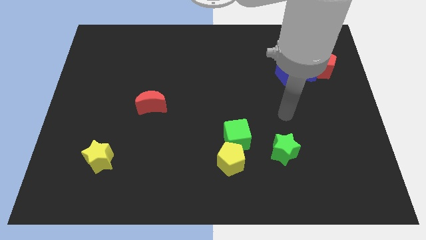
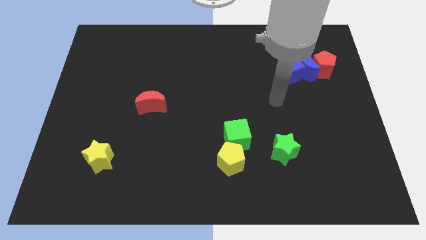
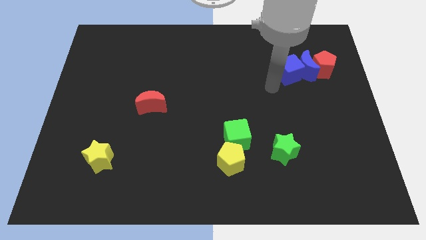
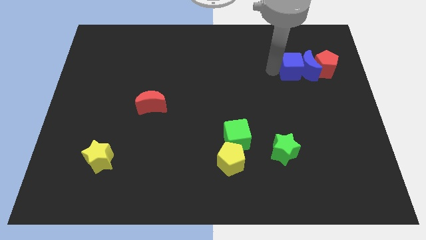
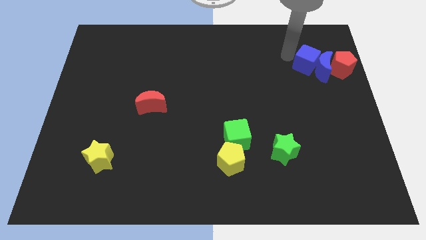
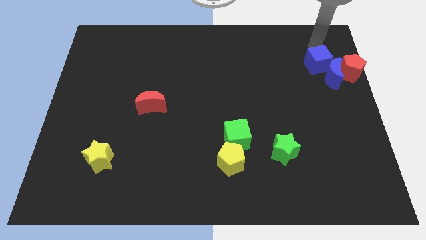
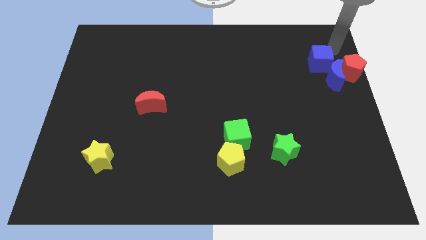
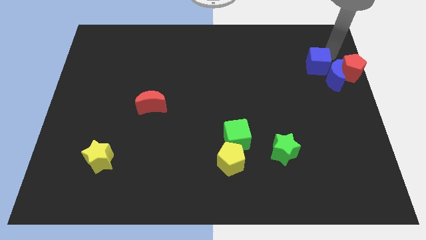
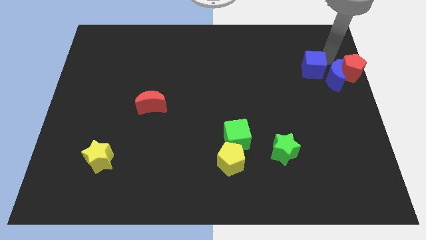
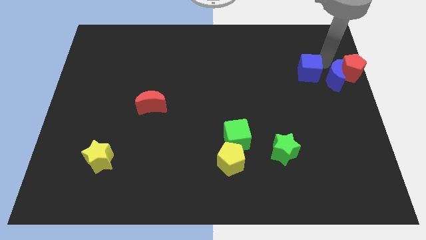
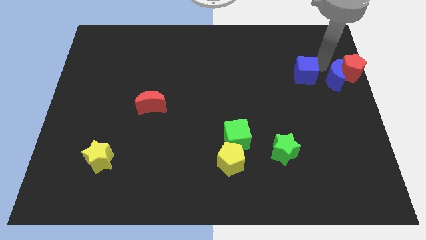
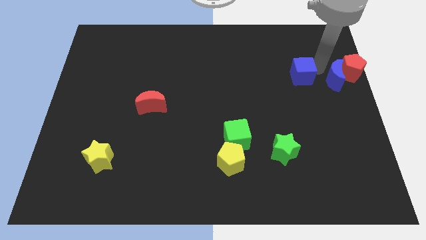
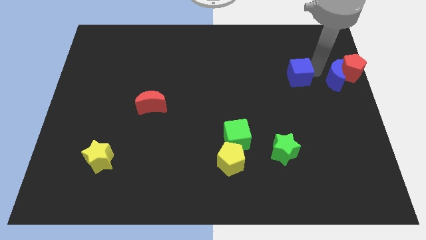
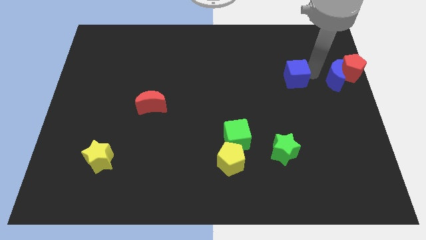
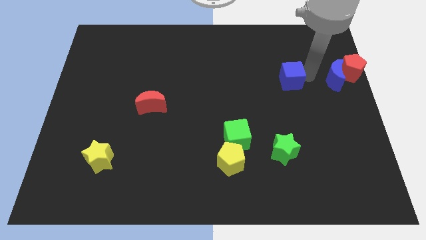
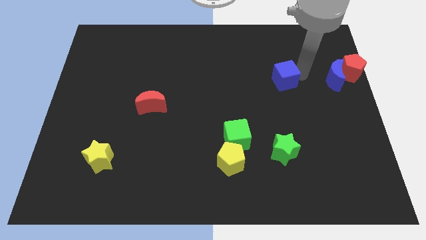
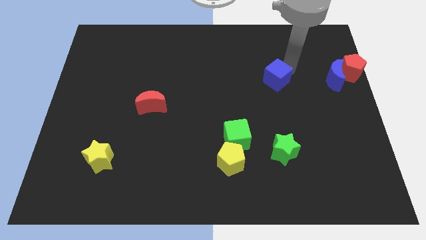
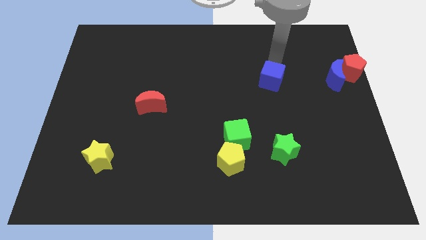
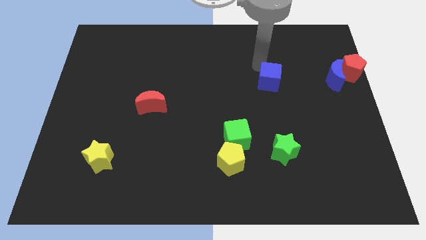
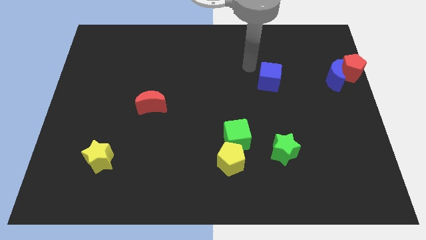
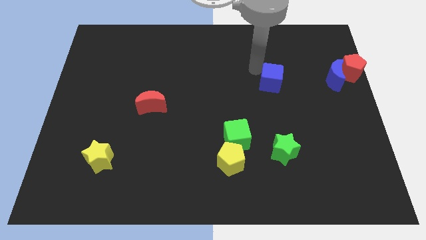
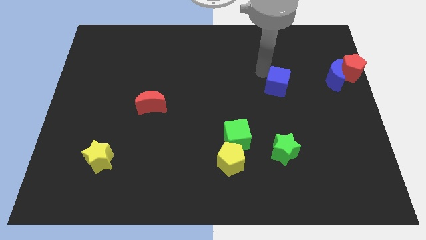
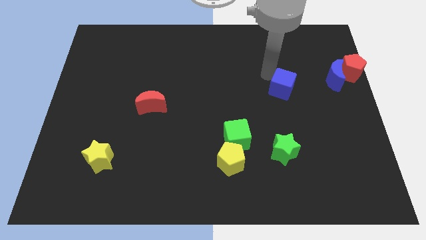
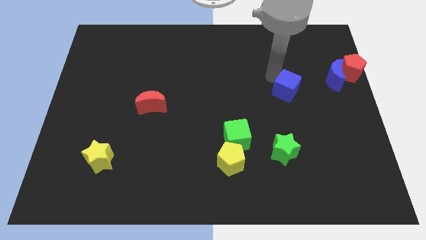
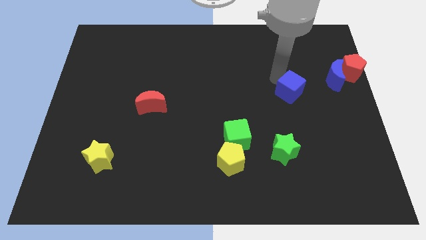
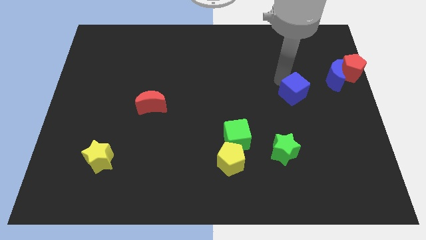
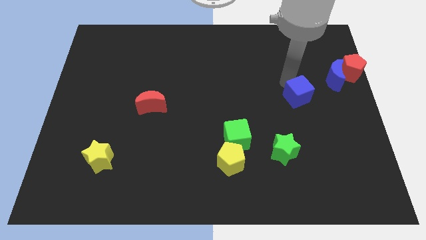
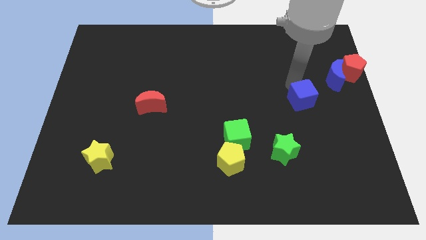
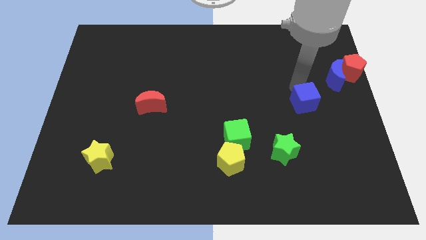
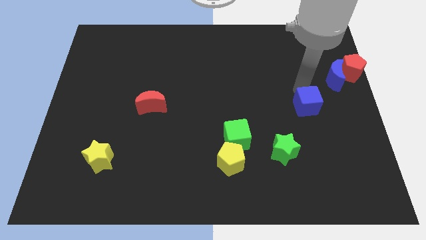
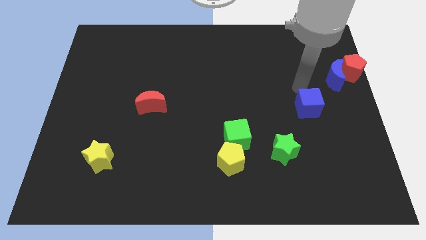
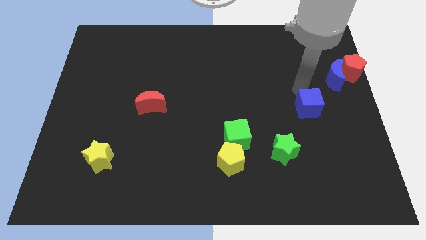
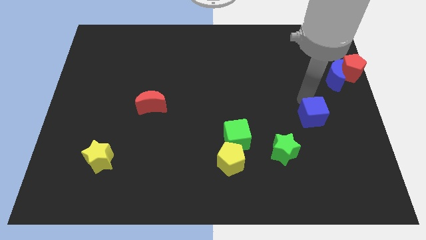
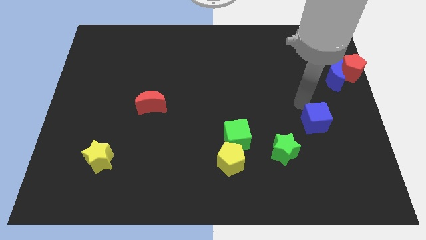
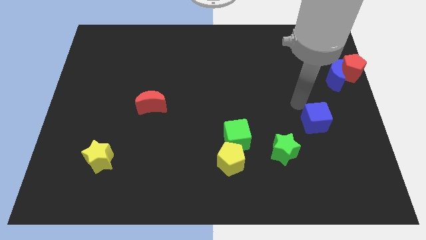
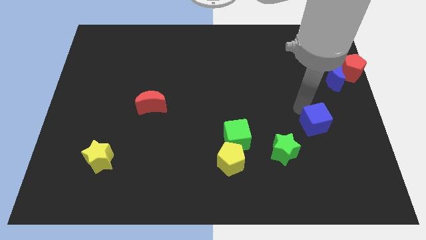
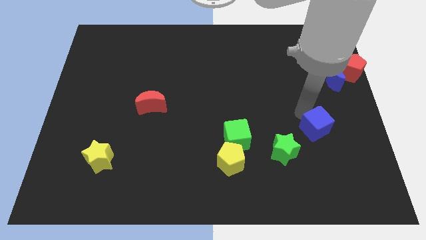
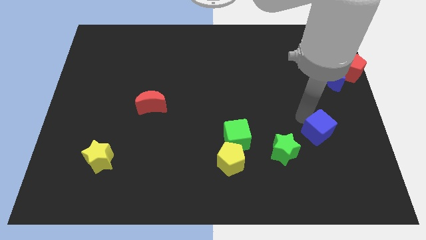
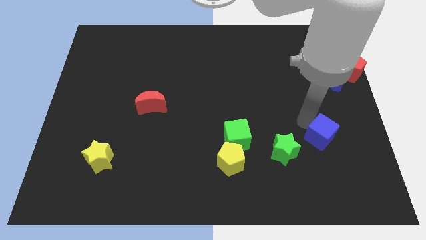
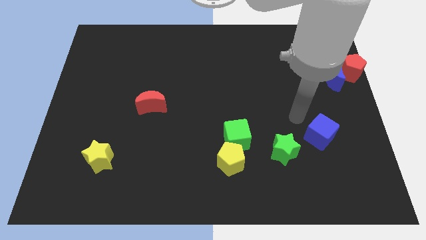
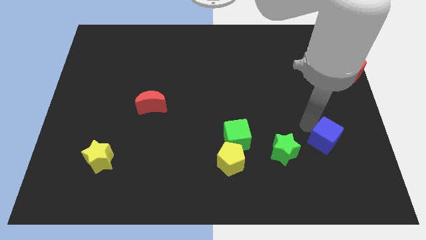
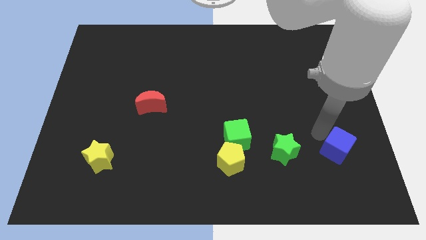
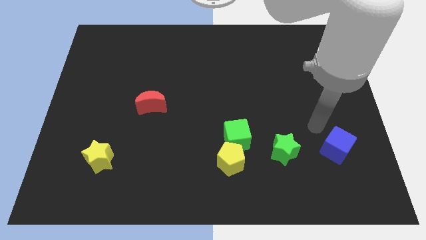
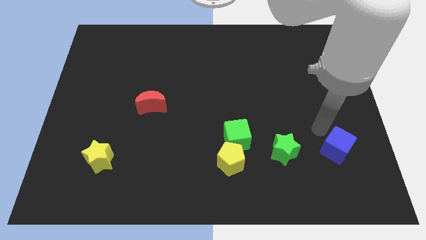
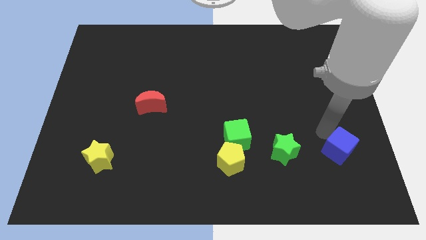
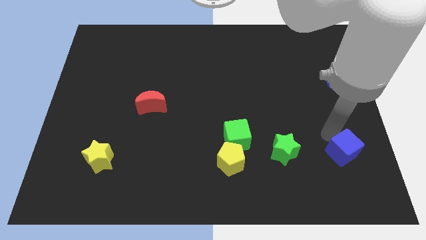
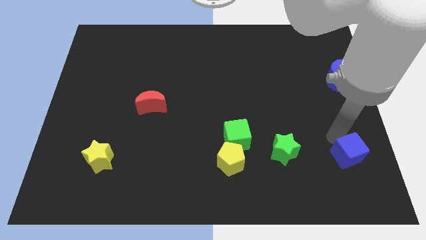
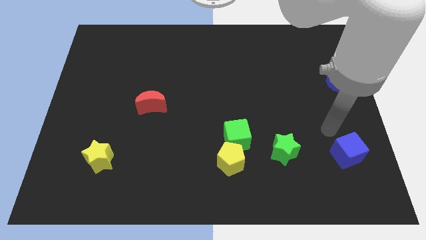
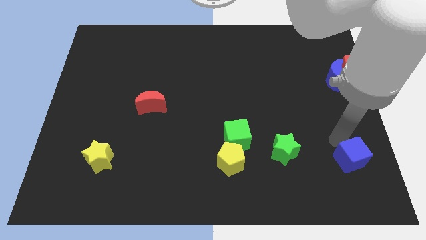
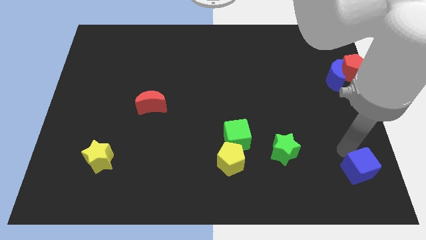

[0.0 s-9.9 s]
push the blue cube to the lower right corner

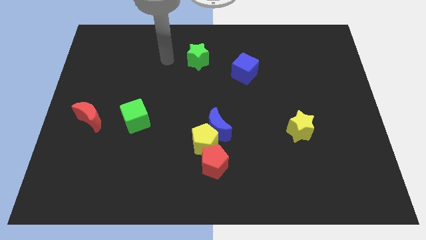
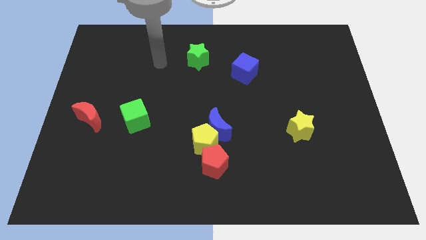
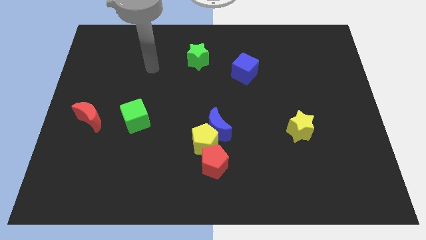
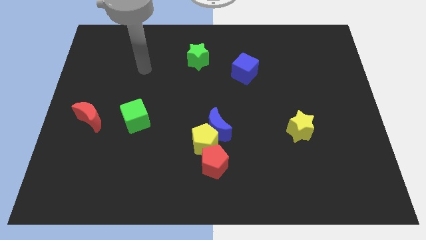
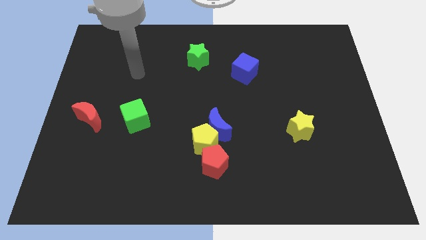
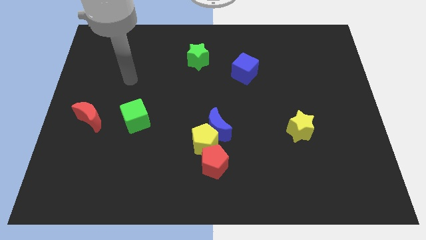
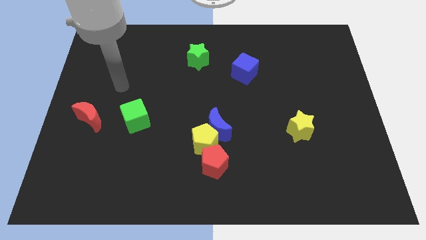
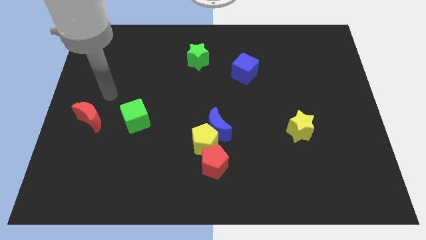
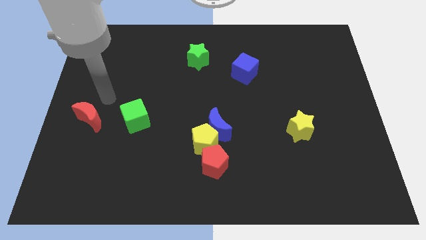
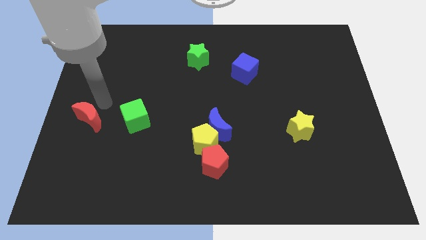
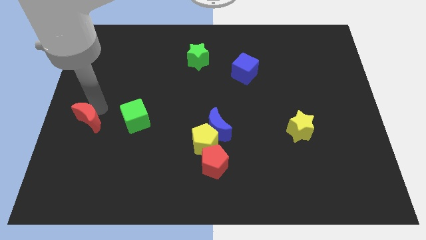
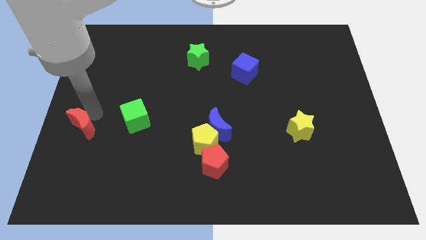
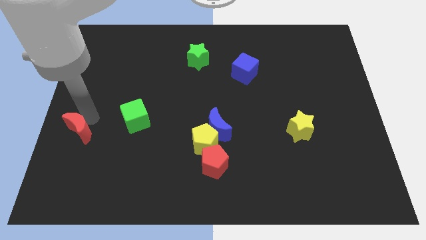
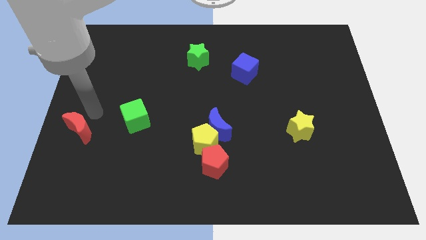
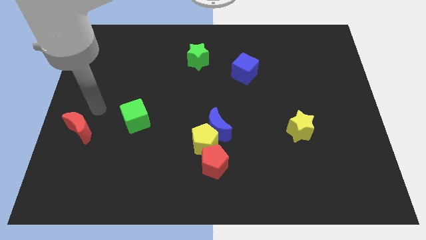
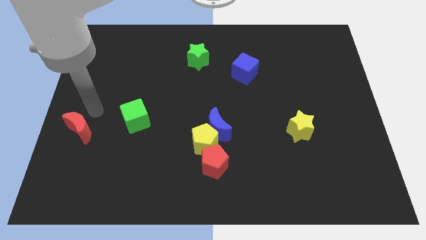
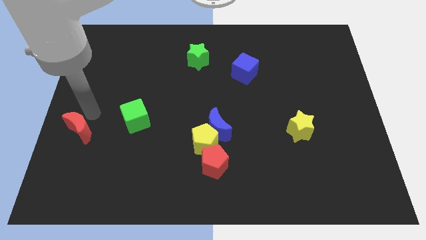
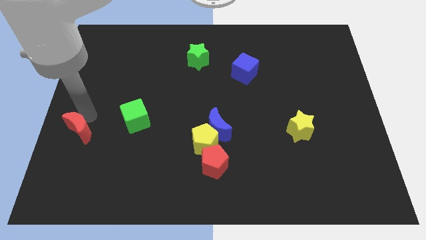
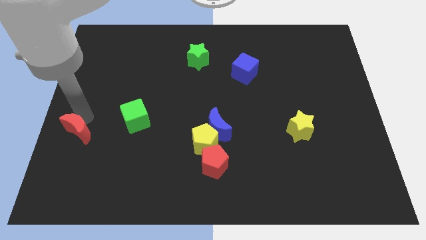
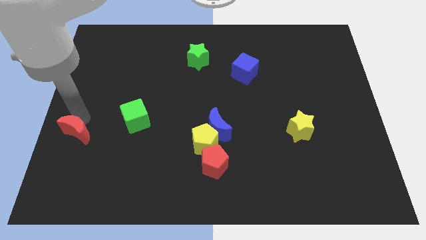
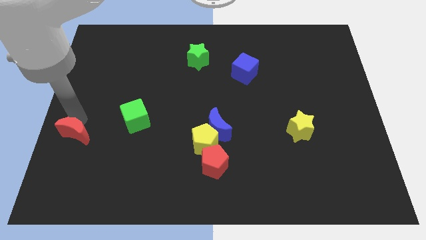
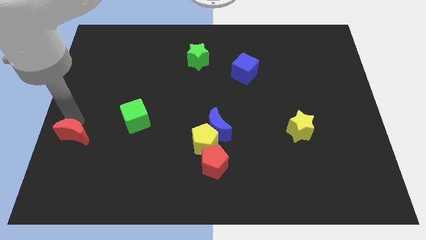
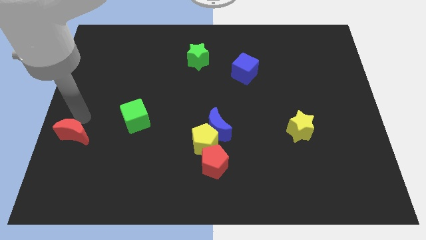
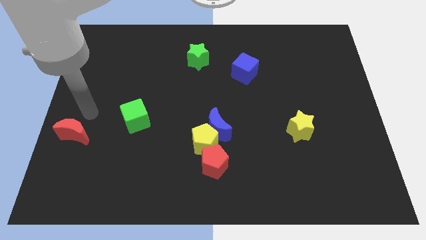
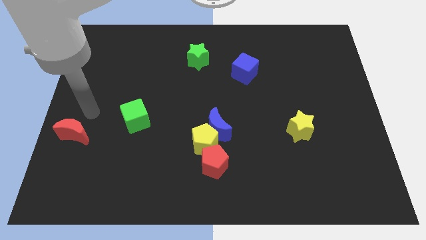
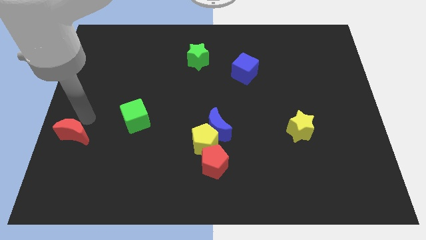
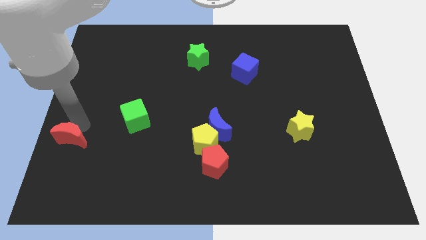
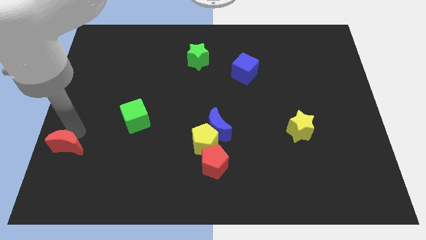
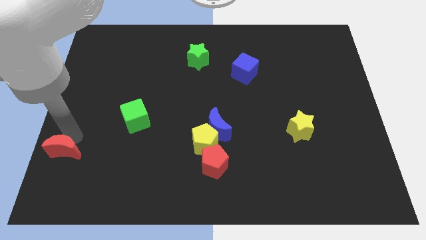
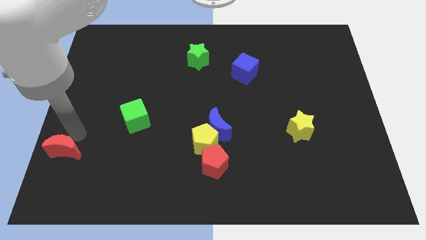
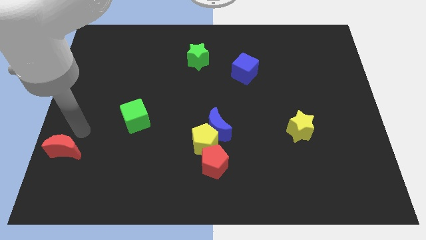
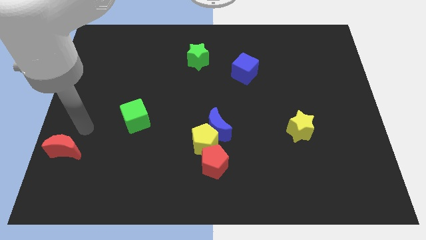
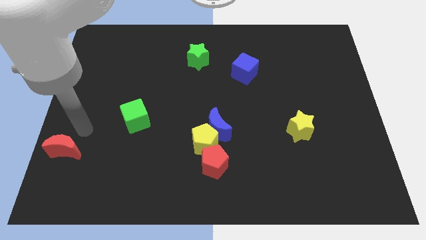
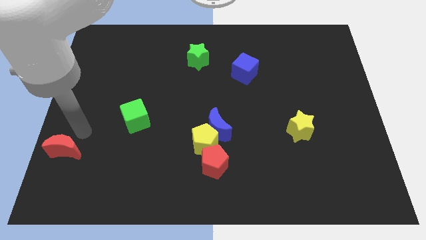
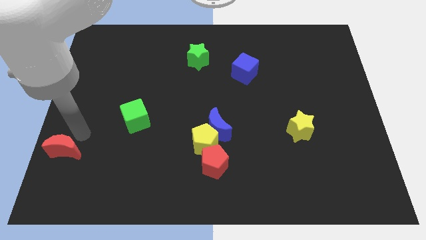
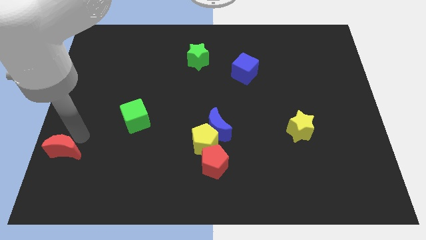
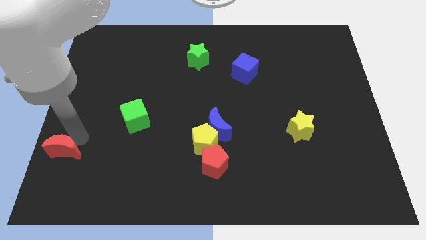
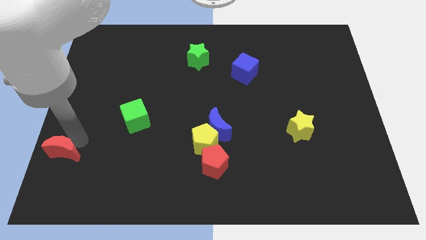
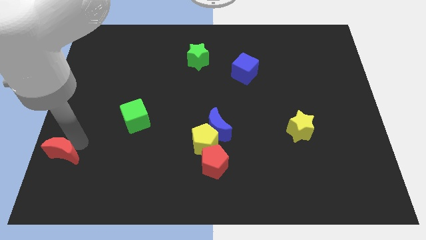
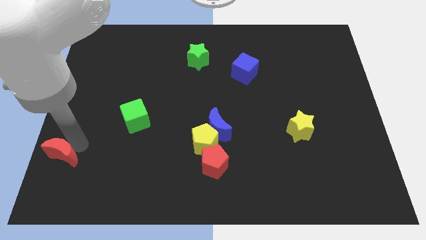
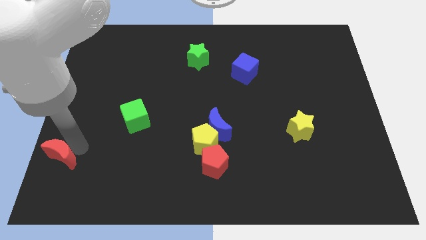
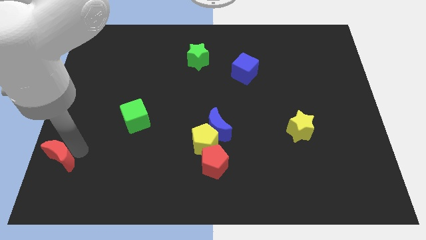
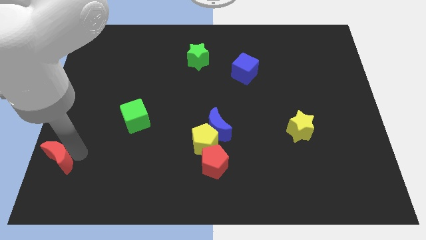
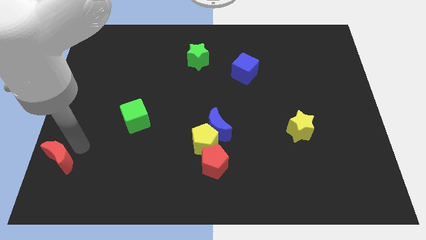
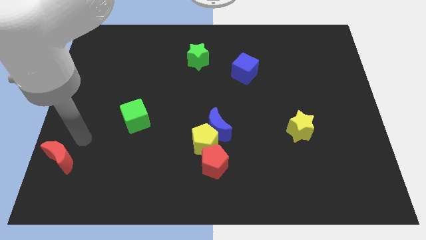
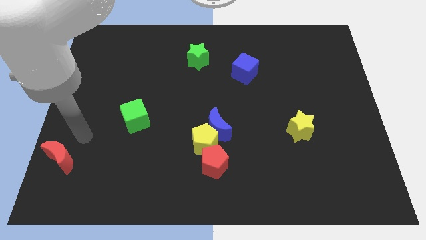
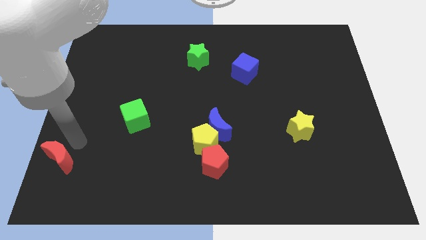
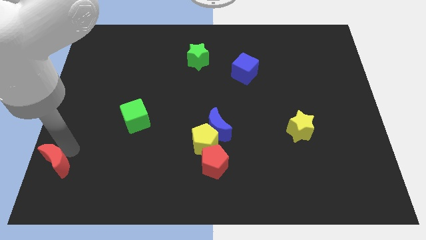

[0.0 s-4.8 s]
slide the red moon to the bottom left
